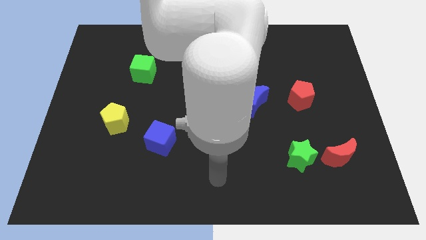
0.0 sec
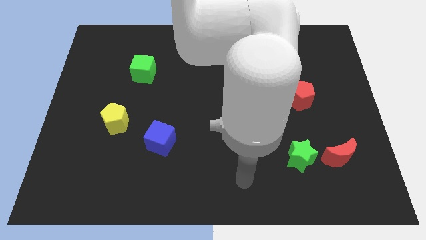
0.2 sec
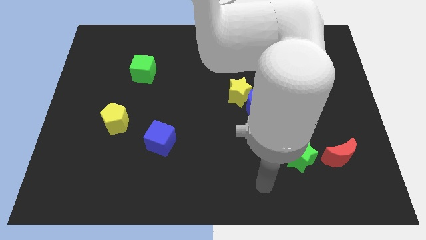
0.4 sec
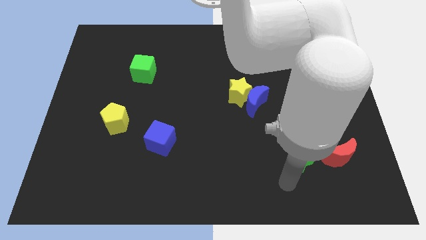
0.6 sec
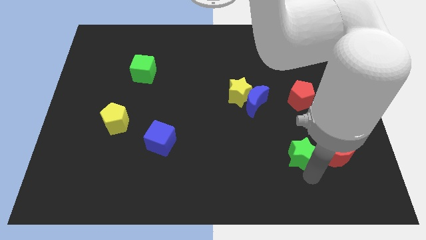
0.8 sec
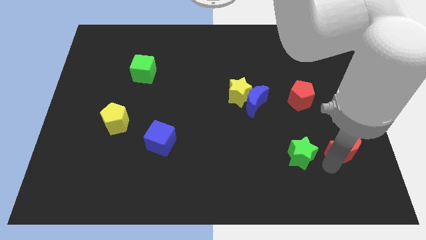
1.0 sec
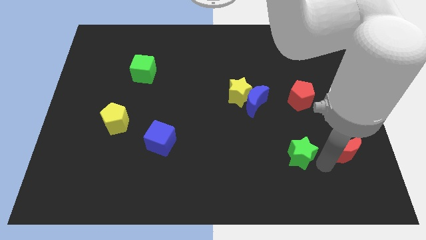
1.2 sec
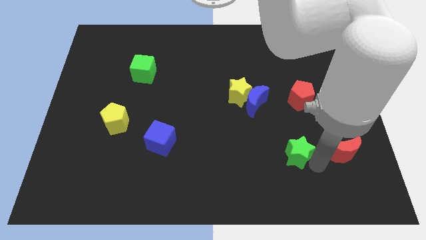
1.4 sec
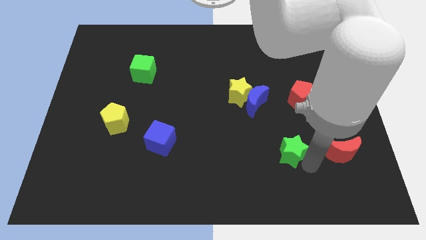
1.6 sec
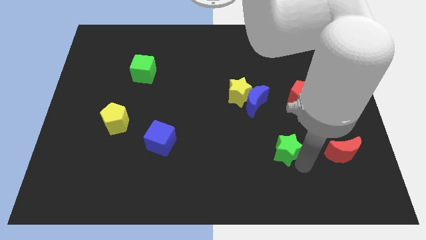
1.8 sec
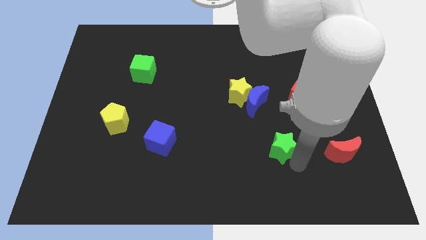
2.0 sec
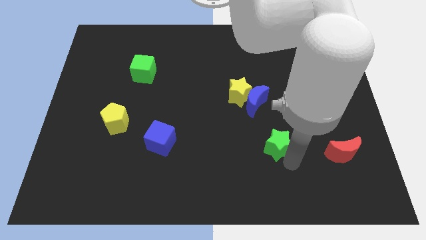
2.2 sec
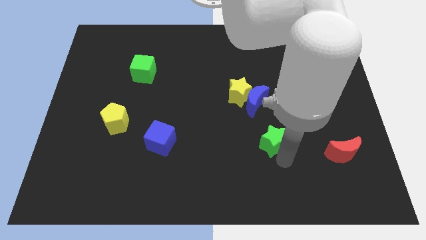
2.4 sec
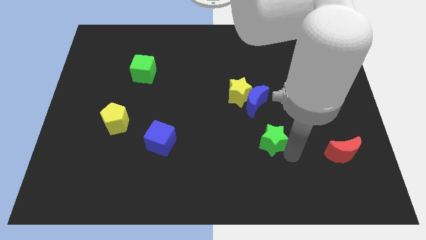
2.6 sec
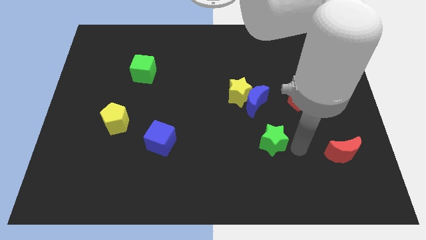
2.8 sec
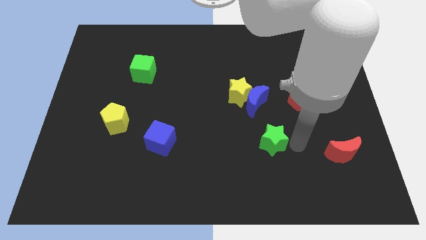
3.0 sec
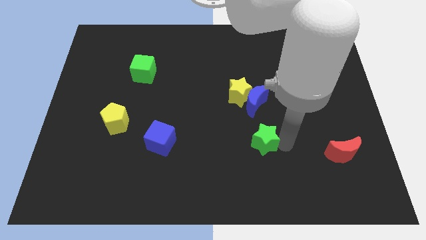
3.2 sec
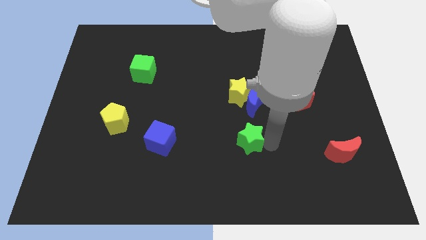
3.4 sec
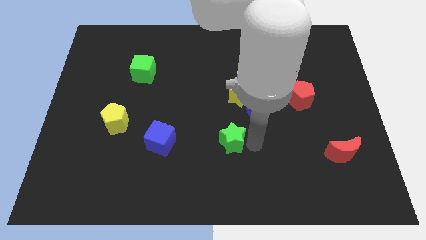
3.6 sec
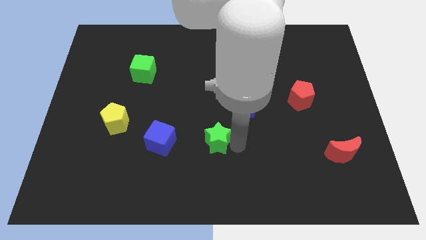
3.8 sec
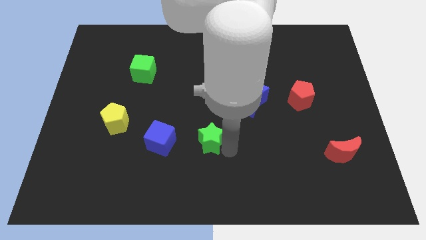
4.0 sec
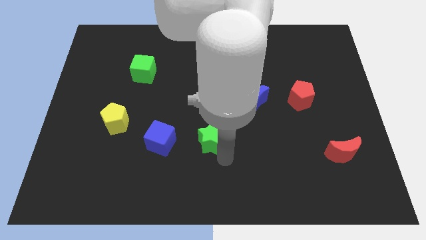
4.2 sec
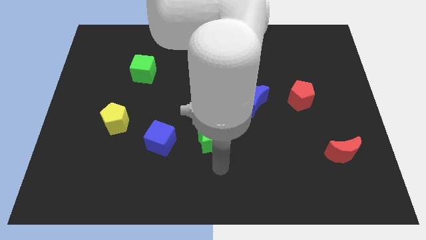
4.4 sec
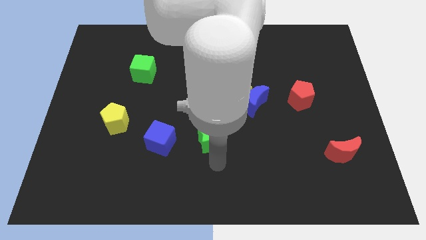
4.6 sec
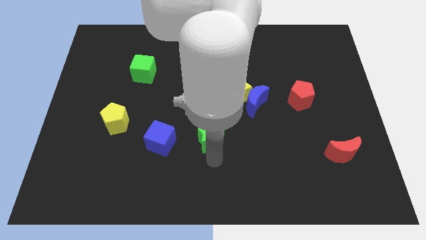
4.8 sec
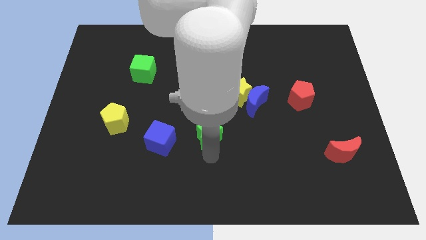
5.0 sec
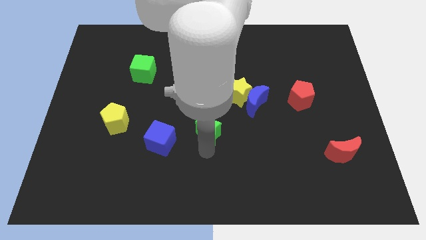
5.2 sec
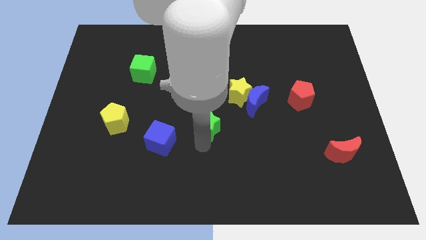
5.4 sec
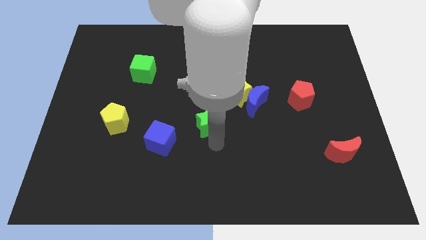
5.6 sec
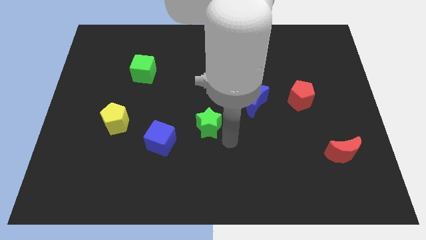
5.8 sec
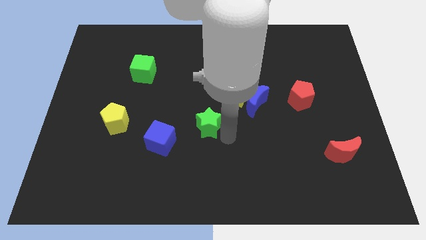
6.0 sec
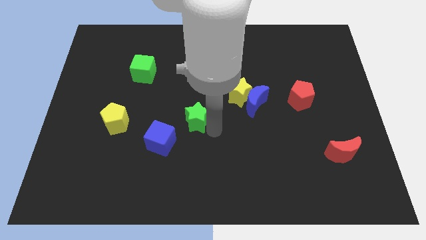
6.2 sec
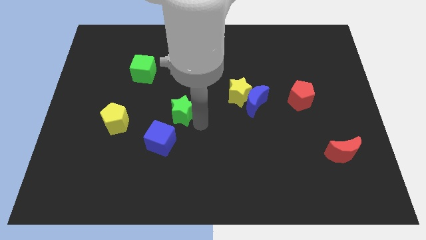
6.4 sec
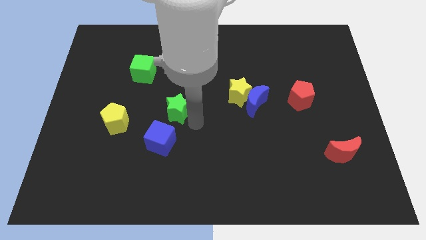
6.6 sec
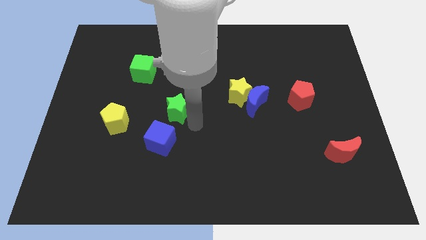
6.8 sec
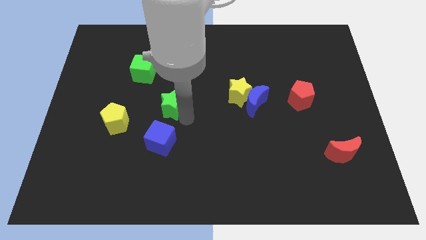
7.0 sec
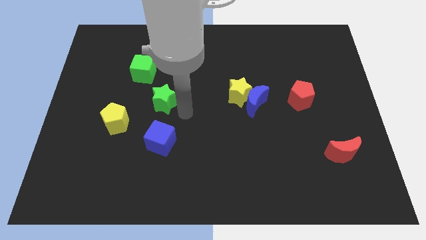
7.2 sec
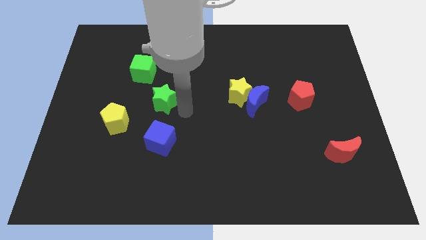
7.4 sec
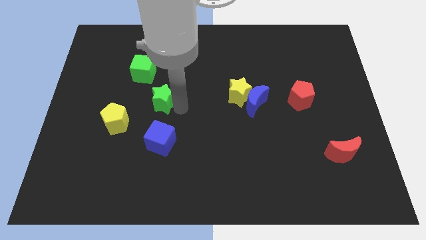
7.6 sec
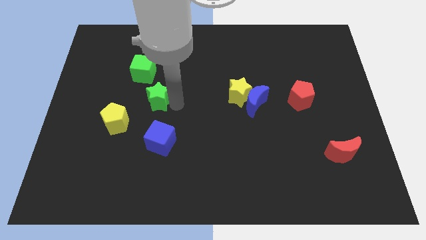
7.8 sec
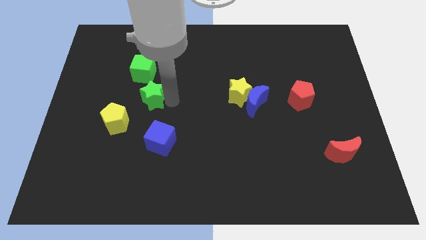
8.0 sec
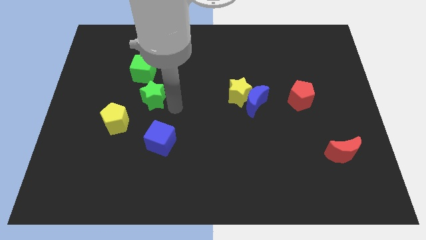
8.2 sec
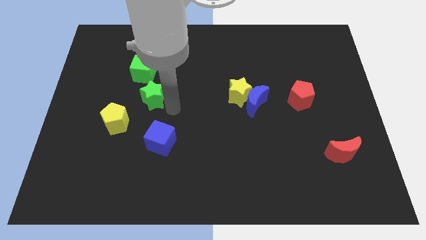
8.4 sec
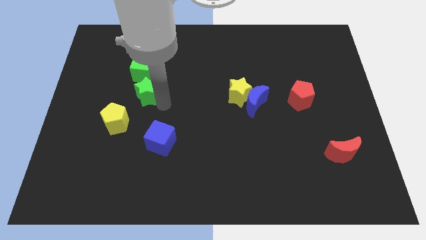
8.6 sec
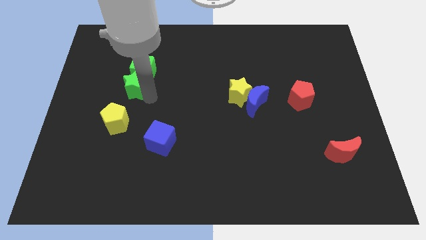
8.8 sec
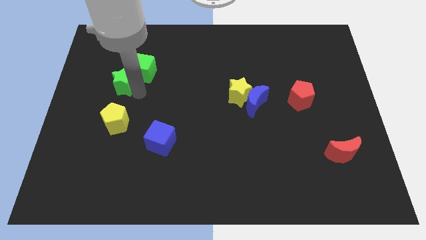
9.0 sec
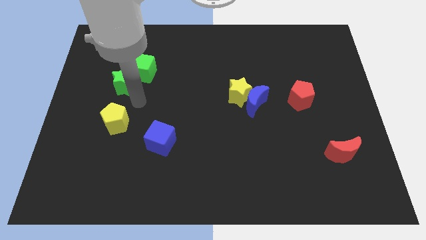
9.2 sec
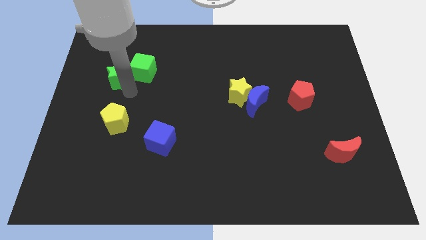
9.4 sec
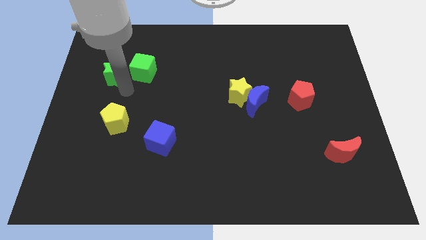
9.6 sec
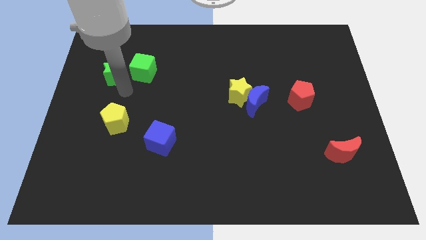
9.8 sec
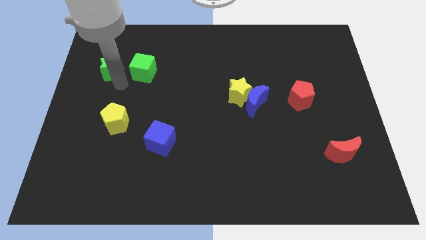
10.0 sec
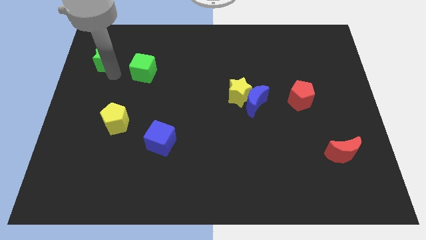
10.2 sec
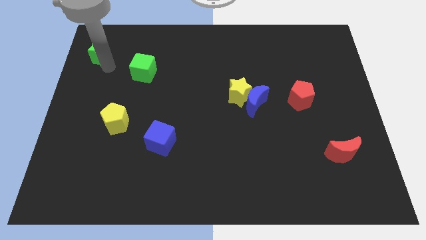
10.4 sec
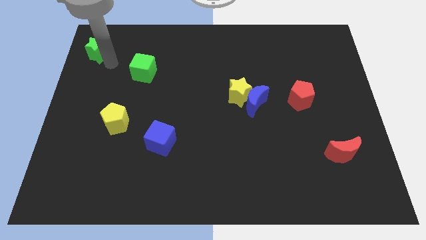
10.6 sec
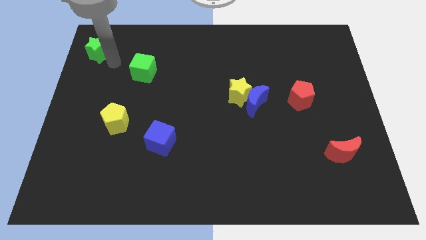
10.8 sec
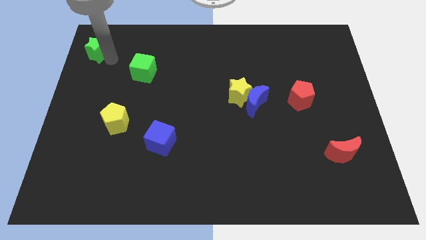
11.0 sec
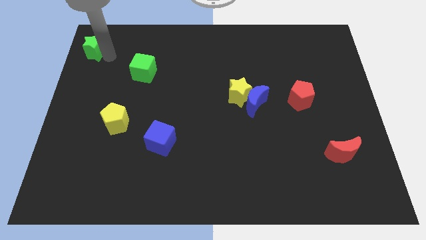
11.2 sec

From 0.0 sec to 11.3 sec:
push the green star to the top left of the board

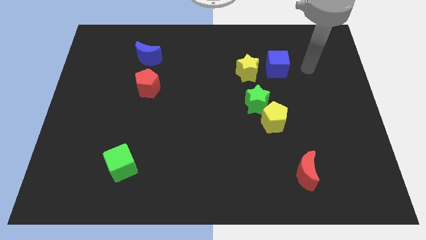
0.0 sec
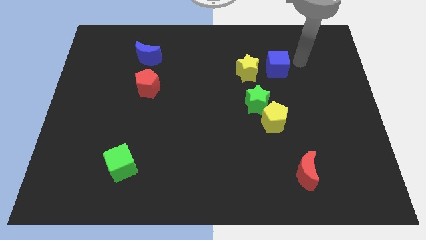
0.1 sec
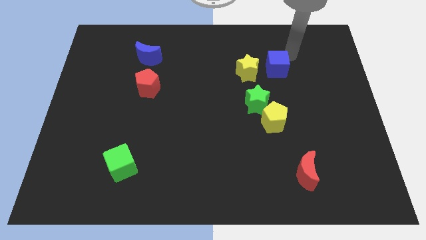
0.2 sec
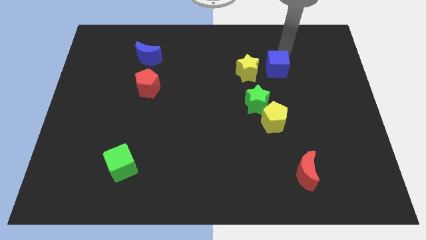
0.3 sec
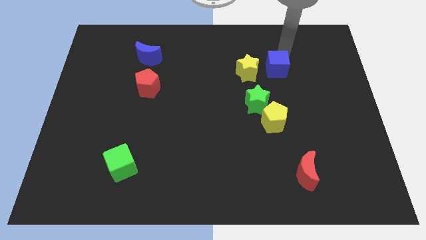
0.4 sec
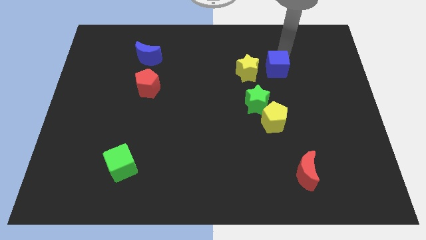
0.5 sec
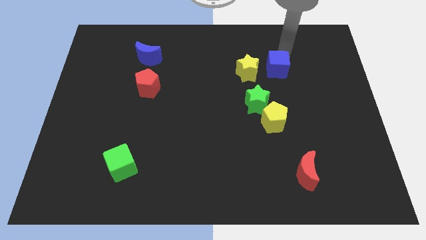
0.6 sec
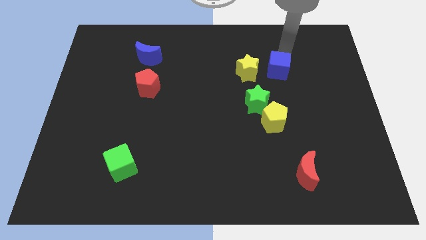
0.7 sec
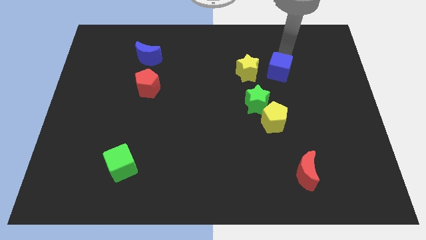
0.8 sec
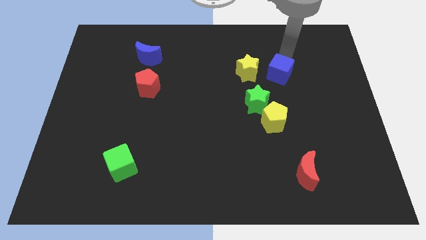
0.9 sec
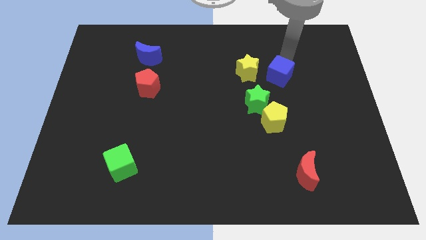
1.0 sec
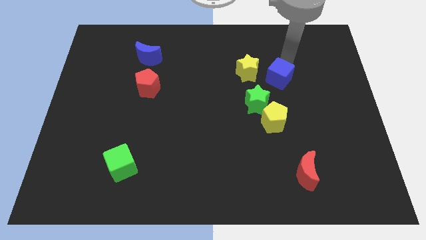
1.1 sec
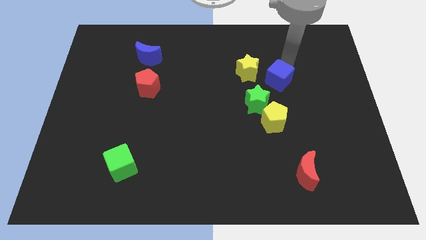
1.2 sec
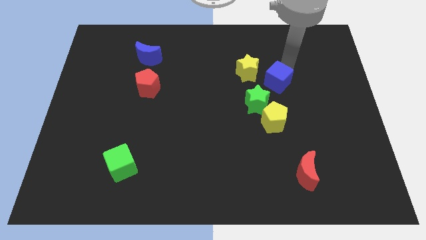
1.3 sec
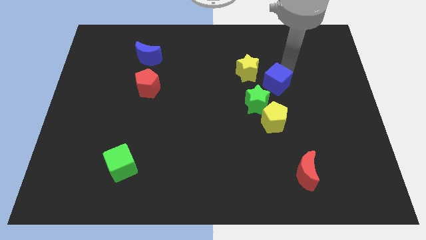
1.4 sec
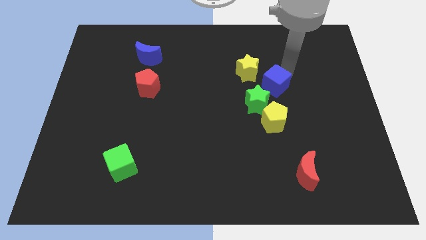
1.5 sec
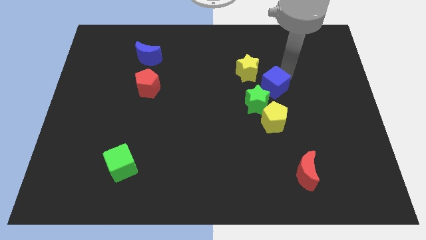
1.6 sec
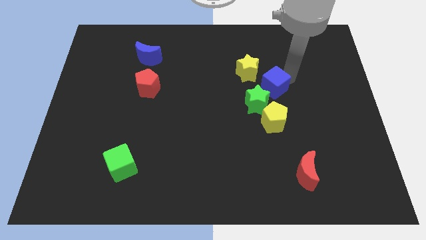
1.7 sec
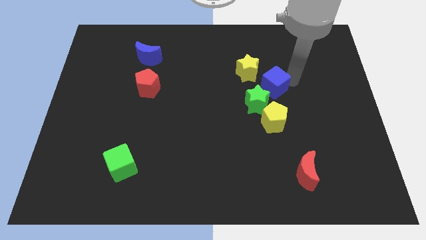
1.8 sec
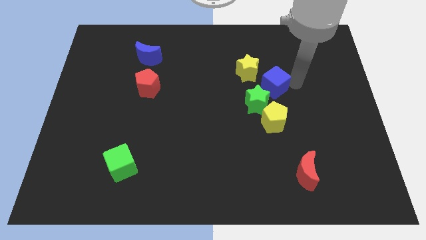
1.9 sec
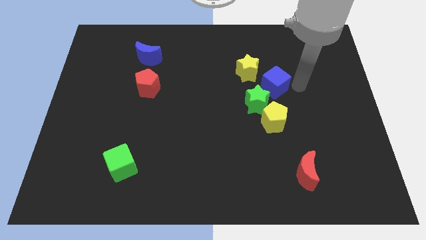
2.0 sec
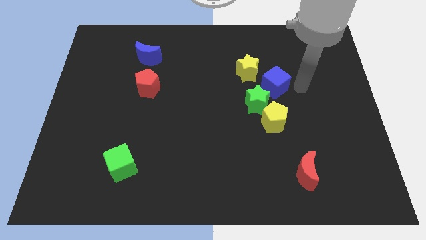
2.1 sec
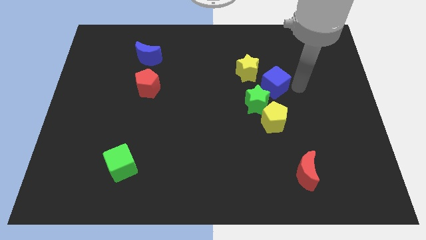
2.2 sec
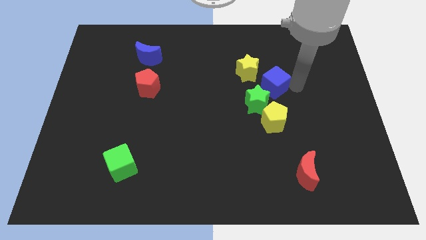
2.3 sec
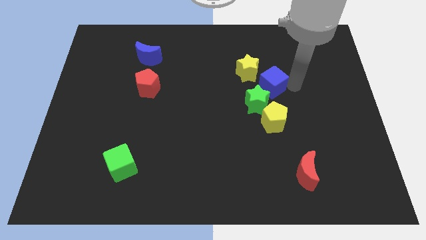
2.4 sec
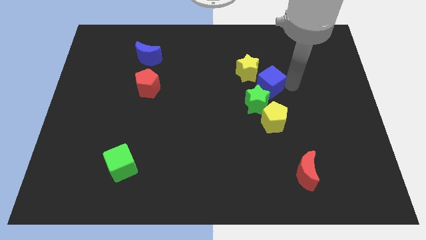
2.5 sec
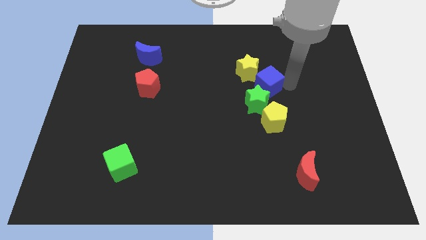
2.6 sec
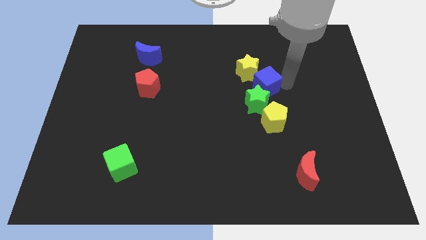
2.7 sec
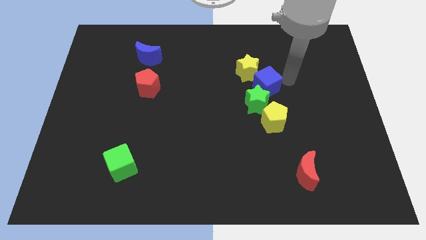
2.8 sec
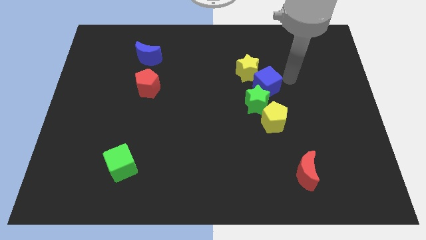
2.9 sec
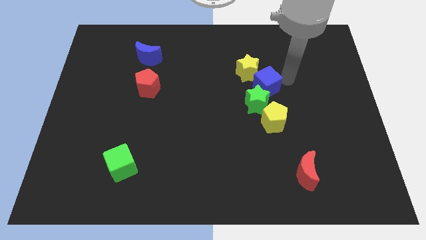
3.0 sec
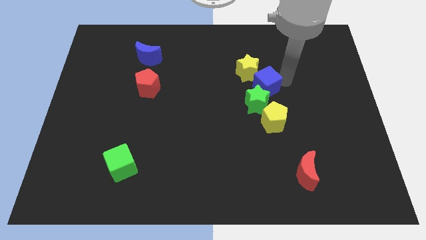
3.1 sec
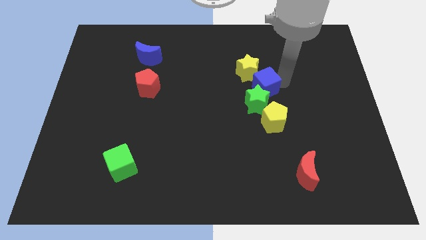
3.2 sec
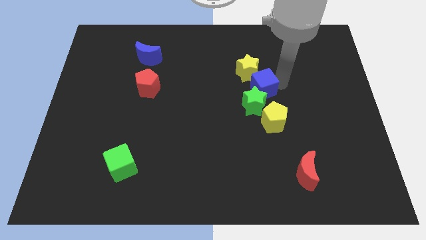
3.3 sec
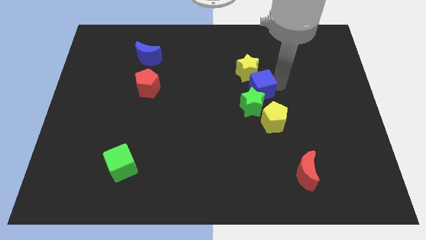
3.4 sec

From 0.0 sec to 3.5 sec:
move the blue cube to the middle
